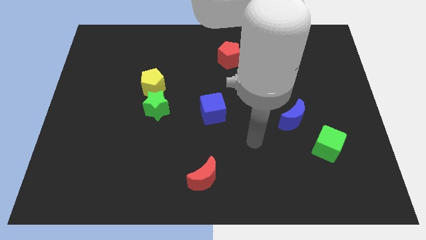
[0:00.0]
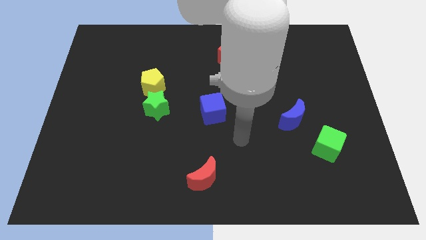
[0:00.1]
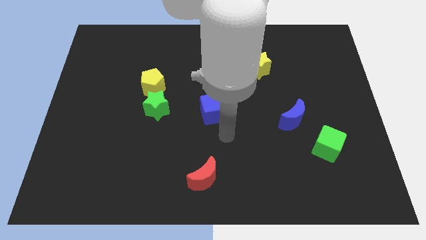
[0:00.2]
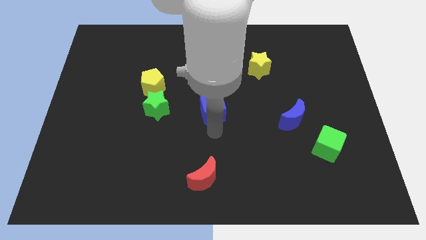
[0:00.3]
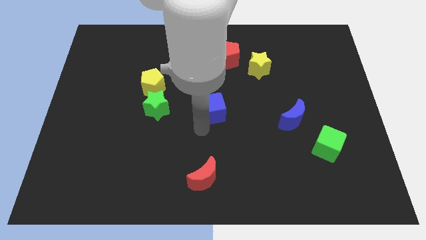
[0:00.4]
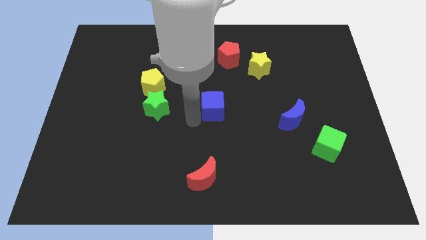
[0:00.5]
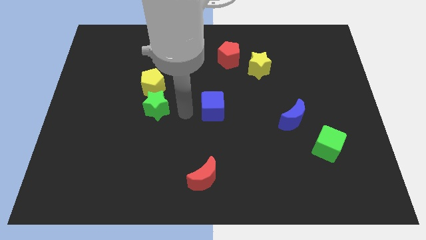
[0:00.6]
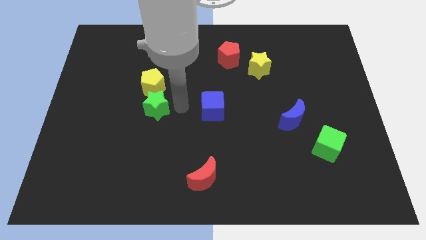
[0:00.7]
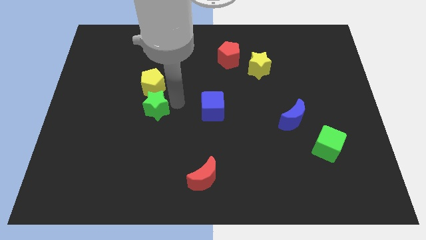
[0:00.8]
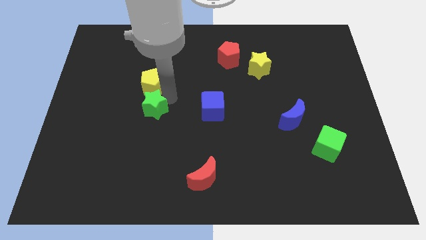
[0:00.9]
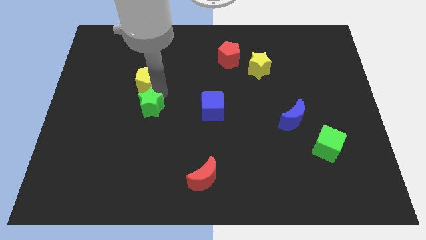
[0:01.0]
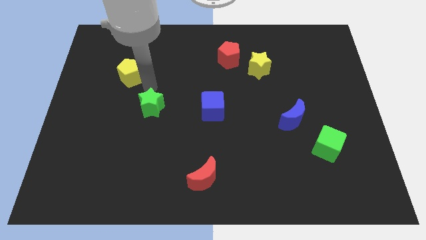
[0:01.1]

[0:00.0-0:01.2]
move the green star away from the yellow pentagon

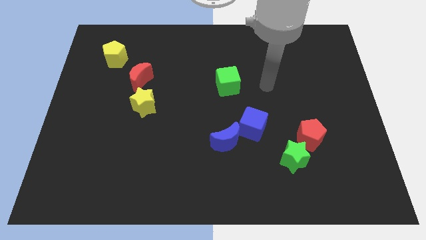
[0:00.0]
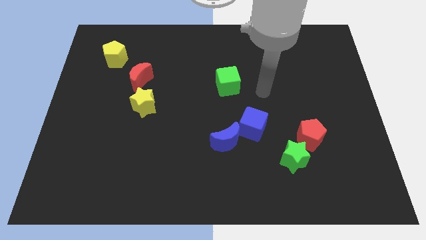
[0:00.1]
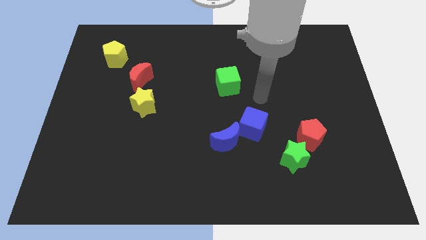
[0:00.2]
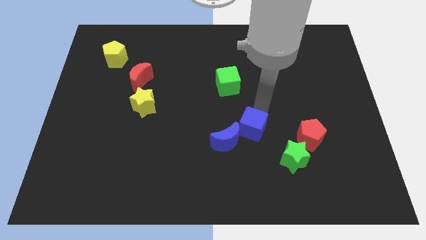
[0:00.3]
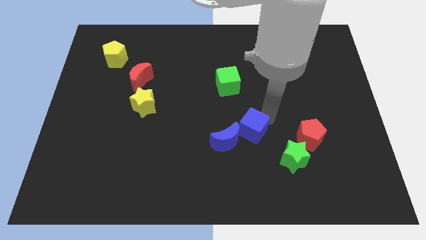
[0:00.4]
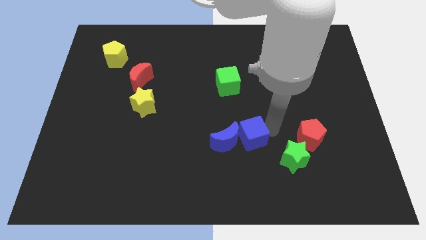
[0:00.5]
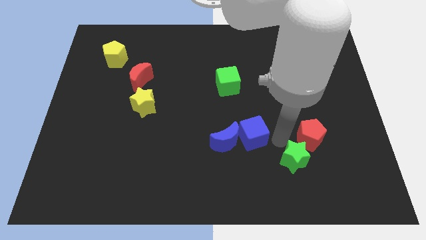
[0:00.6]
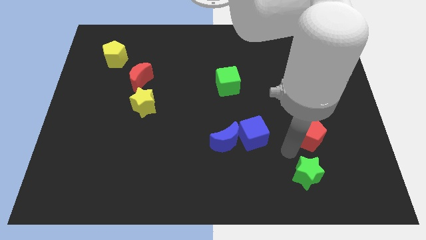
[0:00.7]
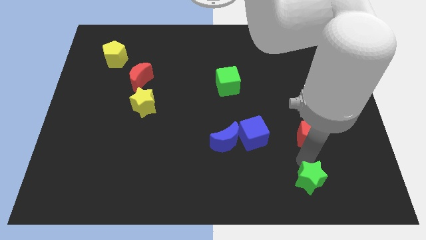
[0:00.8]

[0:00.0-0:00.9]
pull the red pentagon apart from the green star

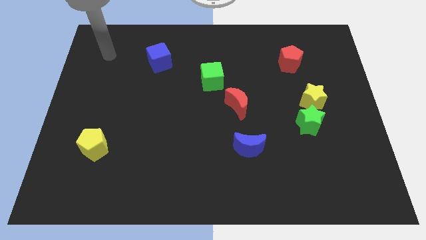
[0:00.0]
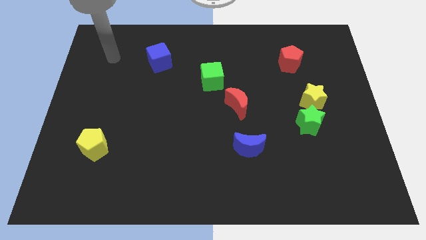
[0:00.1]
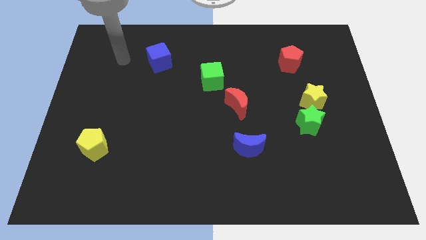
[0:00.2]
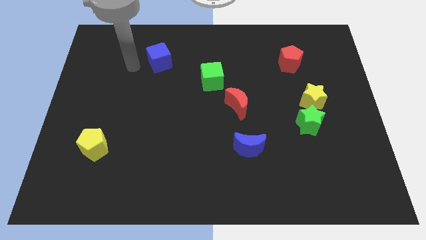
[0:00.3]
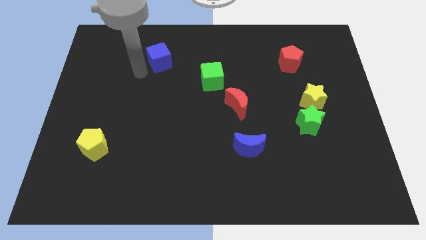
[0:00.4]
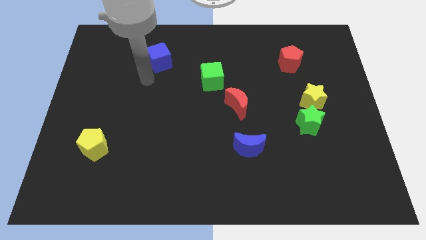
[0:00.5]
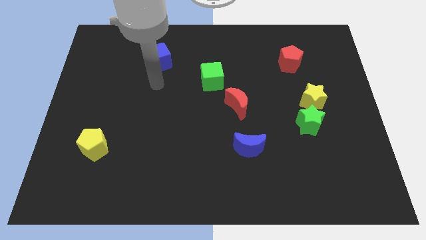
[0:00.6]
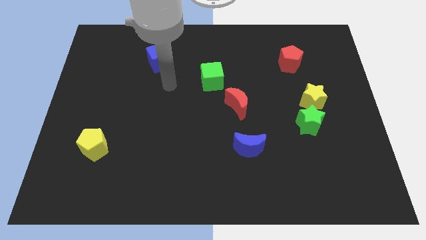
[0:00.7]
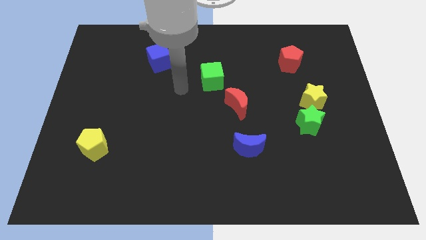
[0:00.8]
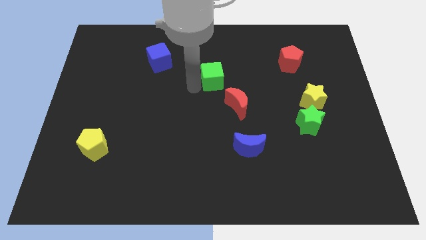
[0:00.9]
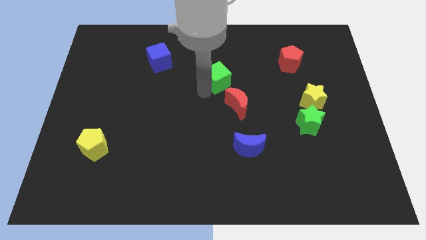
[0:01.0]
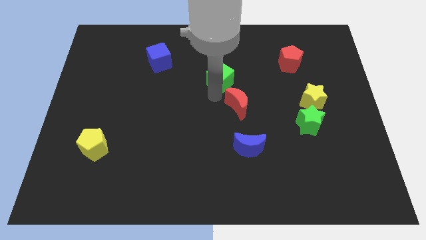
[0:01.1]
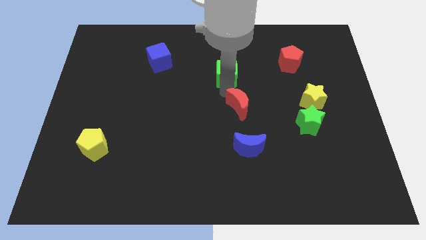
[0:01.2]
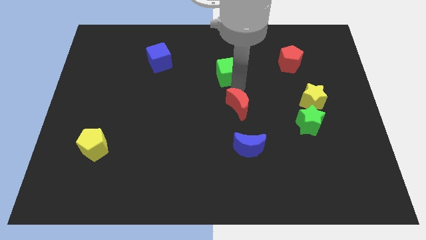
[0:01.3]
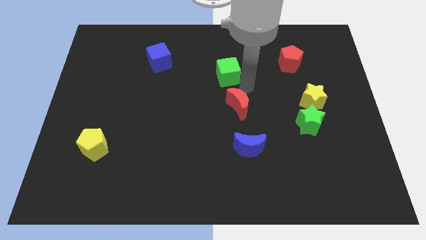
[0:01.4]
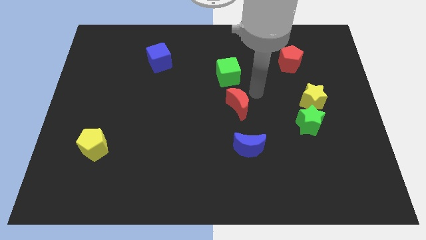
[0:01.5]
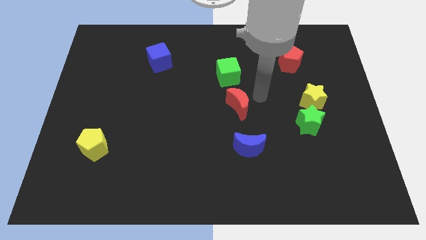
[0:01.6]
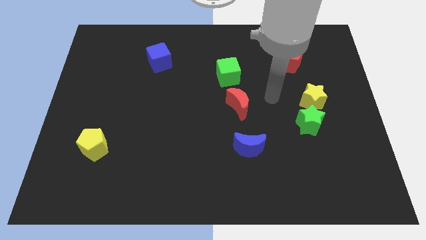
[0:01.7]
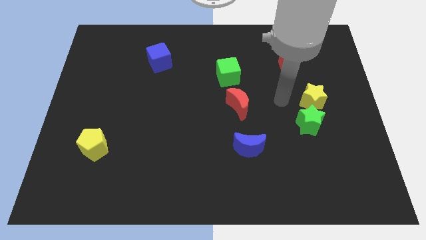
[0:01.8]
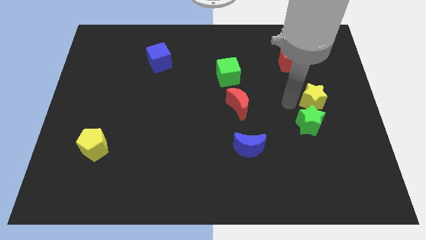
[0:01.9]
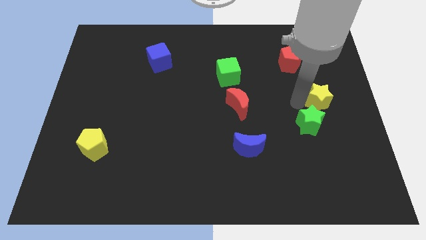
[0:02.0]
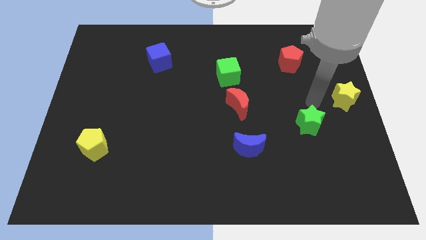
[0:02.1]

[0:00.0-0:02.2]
move the green star away from the yellow star

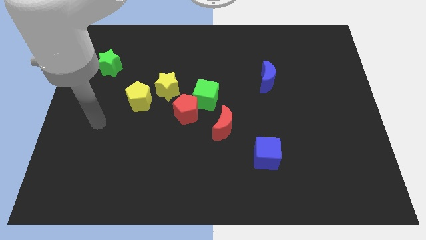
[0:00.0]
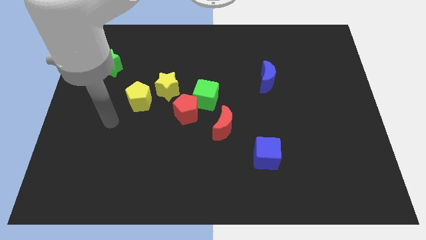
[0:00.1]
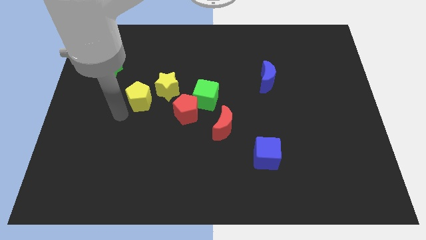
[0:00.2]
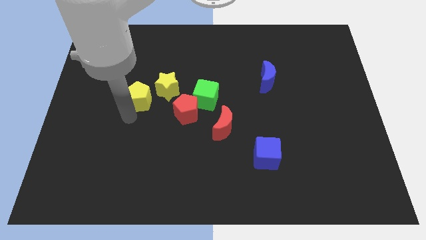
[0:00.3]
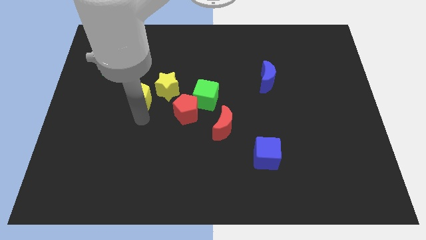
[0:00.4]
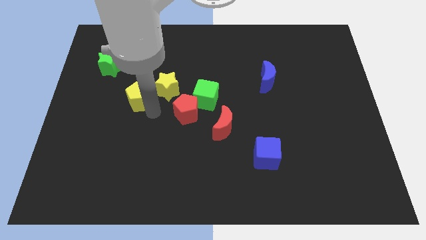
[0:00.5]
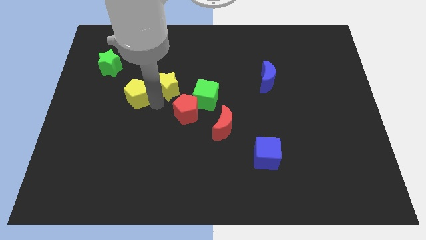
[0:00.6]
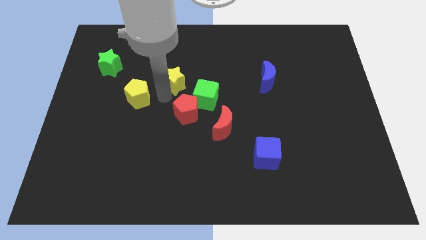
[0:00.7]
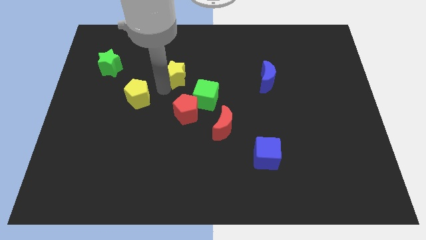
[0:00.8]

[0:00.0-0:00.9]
separate the yellow pentagon from the yellow star

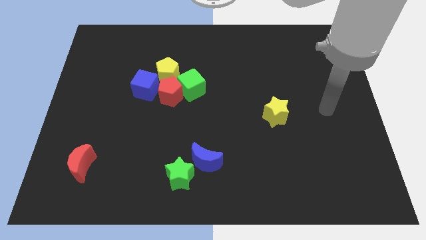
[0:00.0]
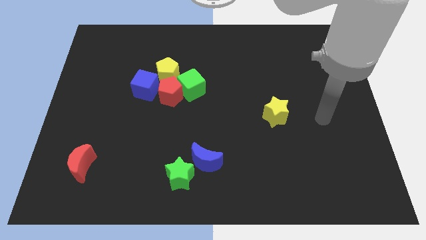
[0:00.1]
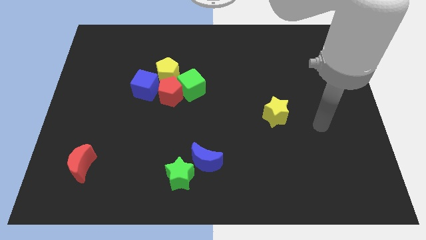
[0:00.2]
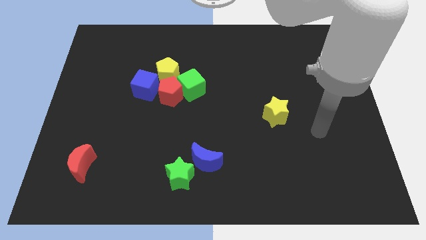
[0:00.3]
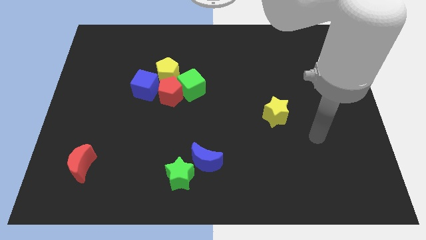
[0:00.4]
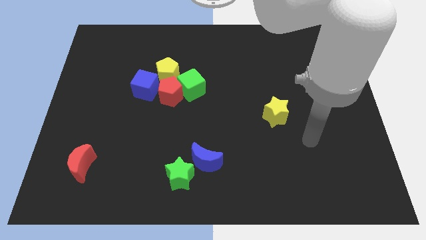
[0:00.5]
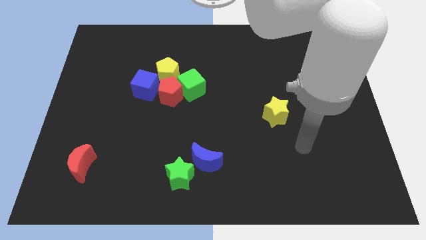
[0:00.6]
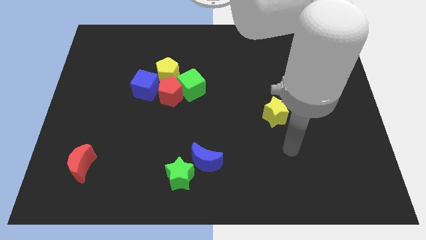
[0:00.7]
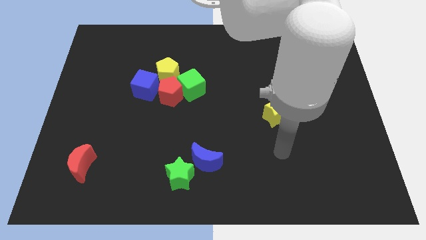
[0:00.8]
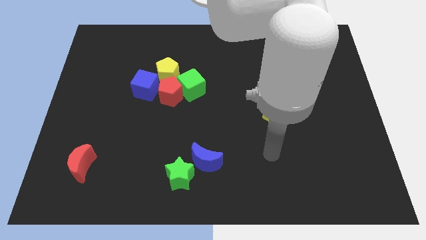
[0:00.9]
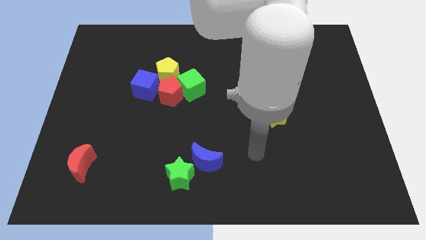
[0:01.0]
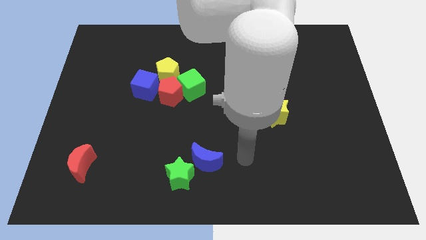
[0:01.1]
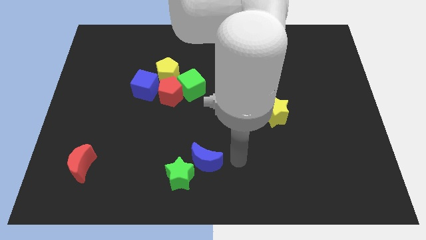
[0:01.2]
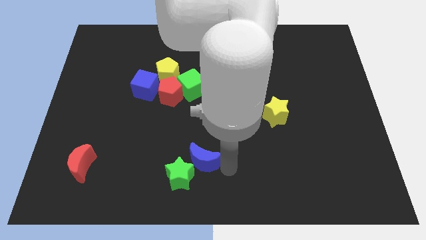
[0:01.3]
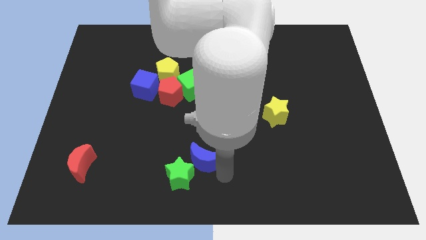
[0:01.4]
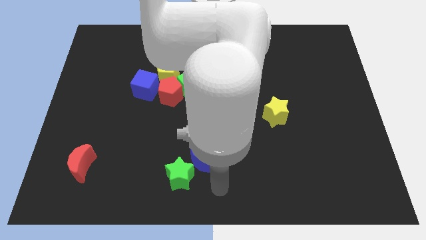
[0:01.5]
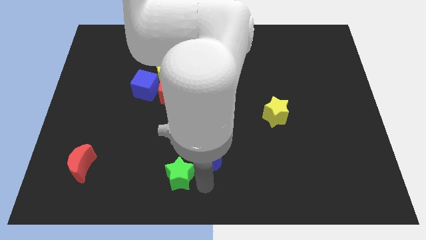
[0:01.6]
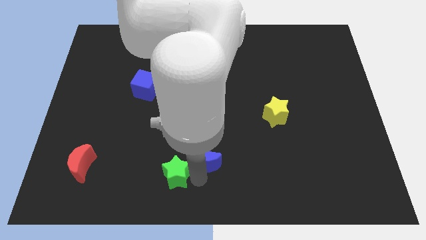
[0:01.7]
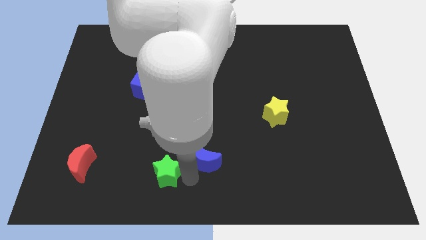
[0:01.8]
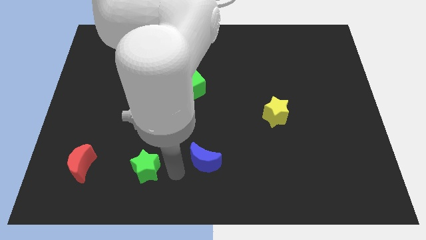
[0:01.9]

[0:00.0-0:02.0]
pull the blue moon apart from the green star

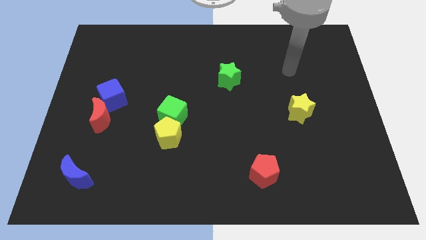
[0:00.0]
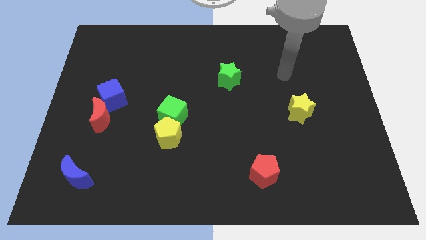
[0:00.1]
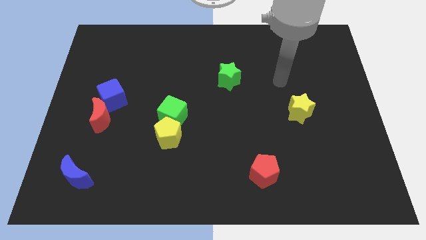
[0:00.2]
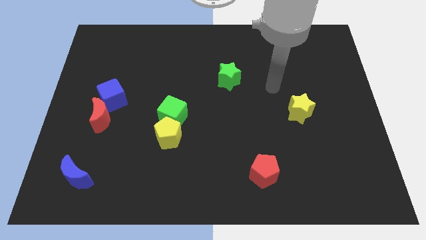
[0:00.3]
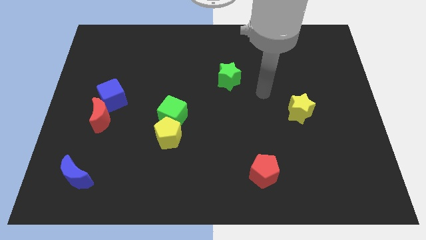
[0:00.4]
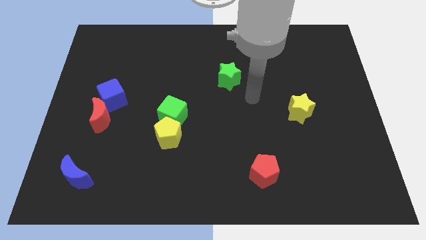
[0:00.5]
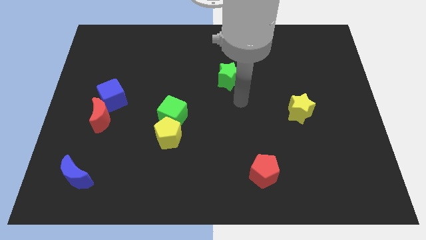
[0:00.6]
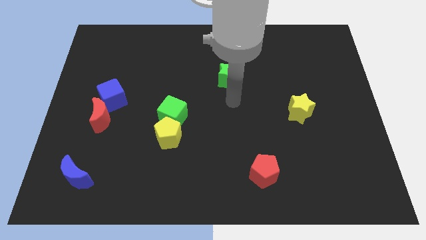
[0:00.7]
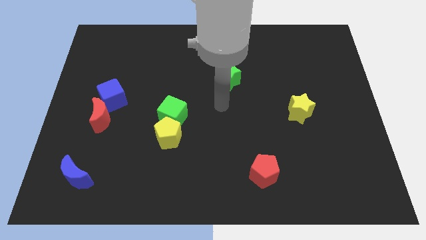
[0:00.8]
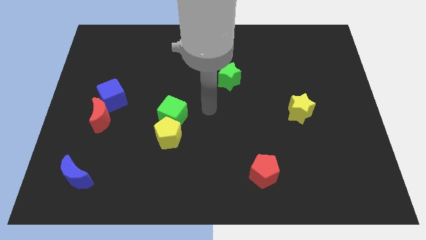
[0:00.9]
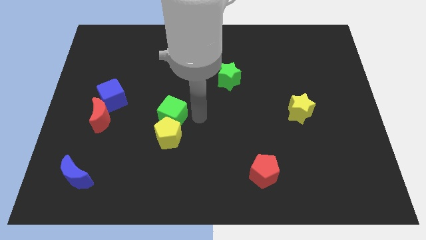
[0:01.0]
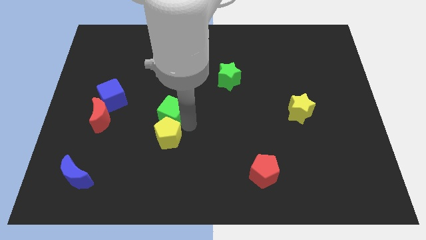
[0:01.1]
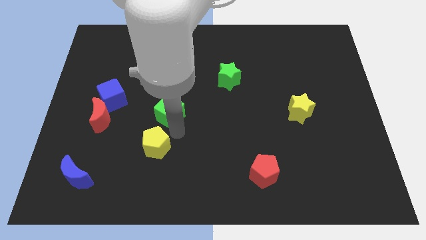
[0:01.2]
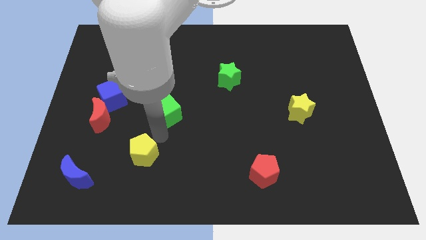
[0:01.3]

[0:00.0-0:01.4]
separate the green cube from the yellow pentagon

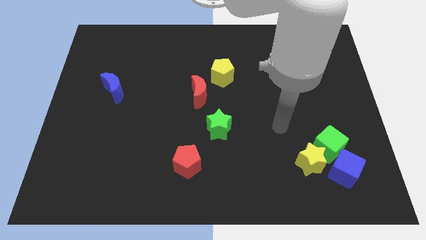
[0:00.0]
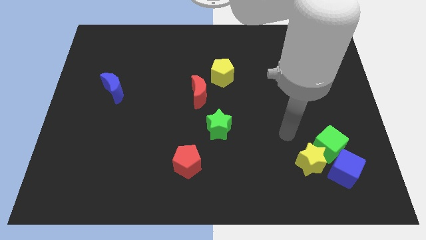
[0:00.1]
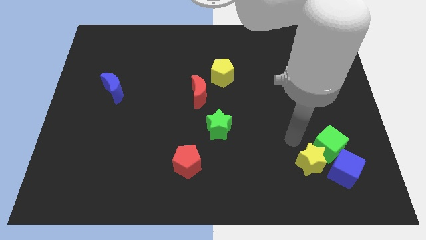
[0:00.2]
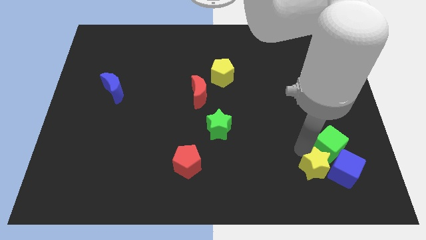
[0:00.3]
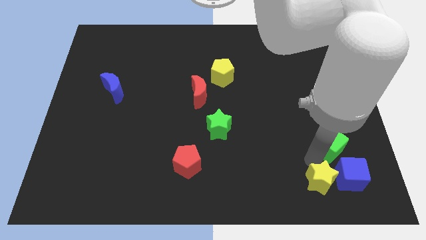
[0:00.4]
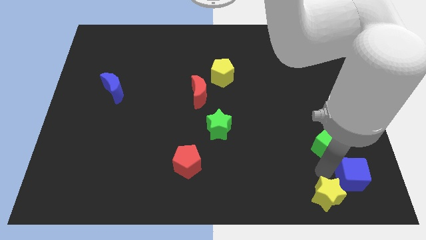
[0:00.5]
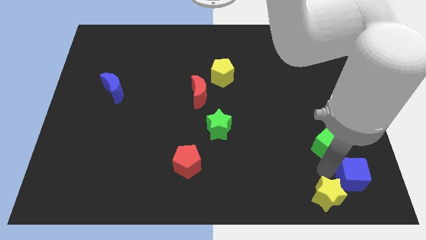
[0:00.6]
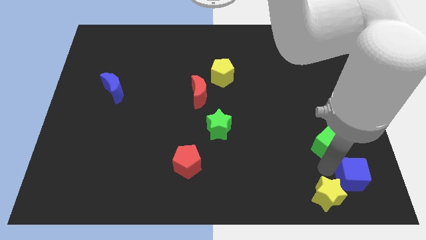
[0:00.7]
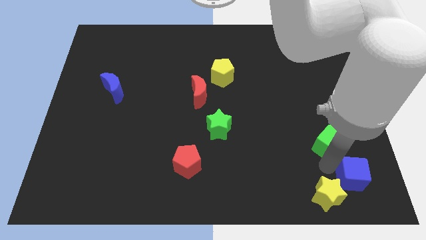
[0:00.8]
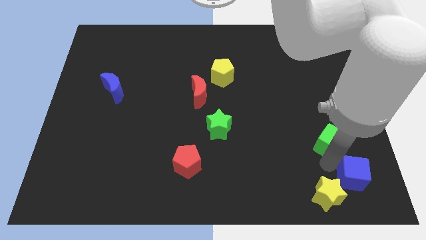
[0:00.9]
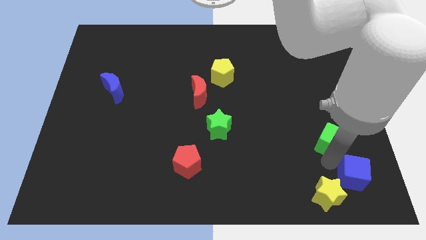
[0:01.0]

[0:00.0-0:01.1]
separate the green cube from the yellow star and blue cube
